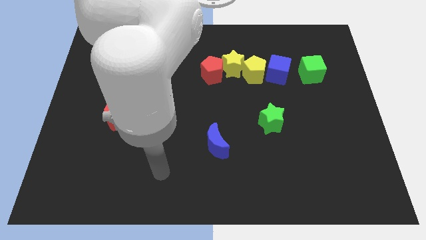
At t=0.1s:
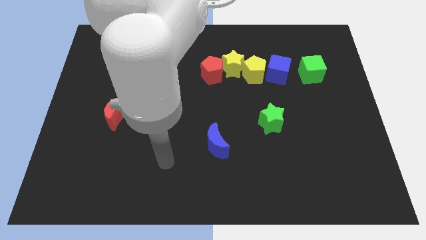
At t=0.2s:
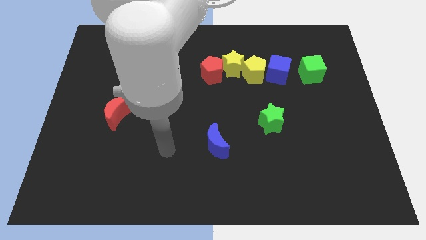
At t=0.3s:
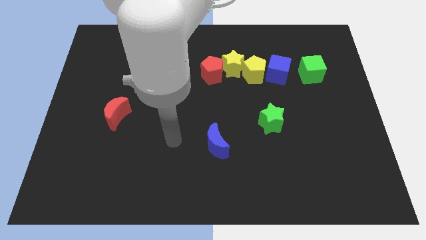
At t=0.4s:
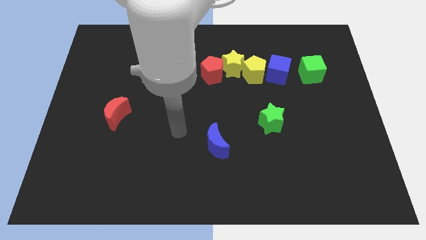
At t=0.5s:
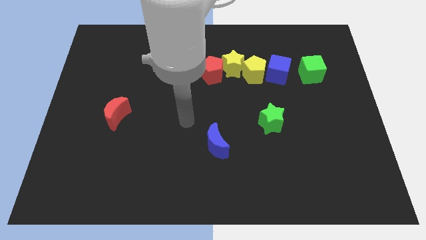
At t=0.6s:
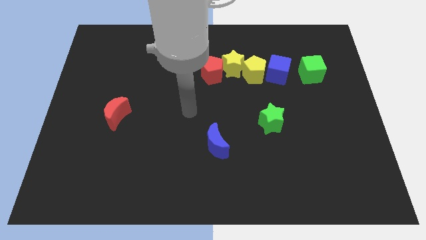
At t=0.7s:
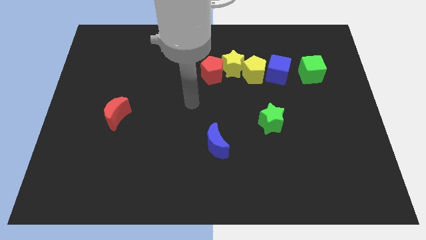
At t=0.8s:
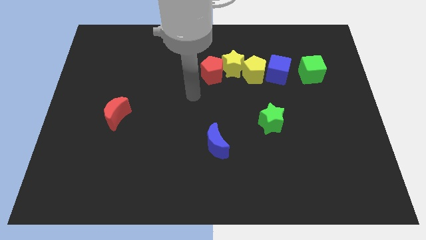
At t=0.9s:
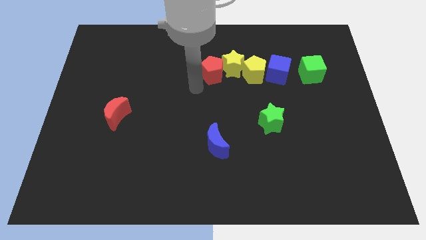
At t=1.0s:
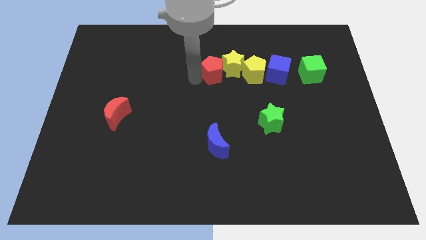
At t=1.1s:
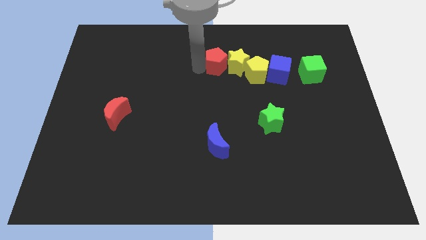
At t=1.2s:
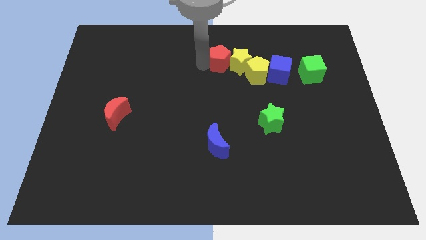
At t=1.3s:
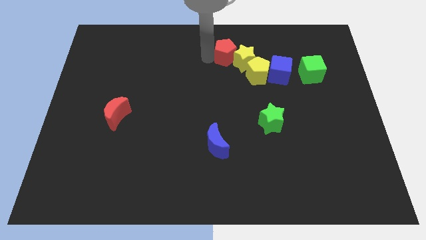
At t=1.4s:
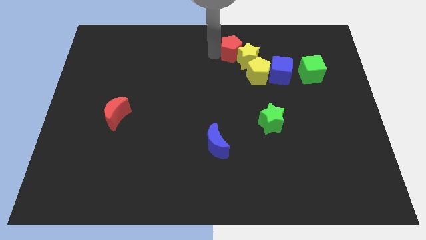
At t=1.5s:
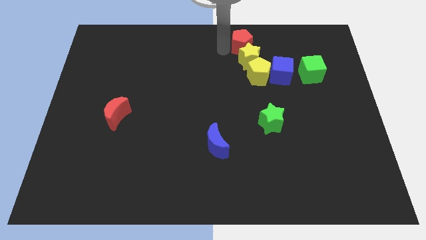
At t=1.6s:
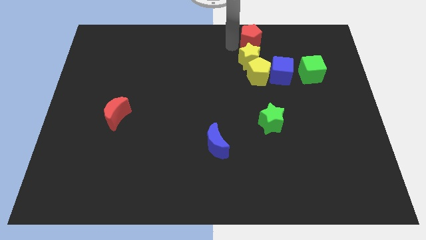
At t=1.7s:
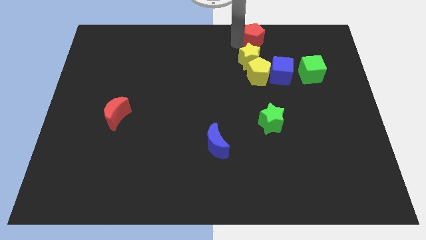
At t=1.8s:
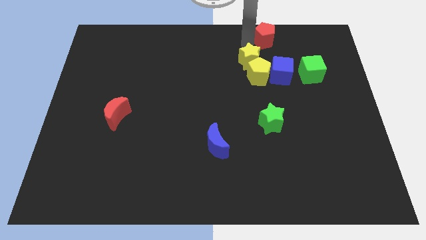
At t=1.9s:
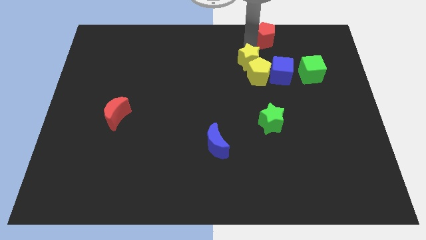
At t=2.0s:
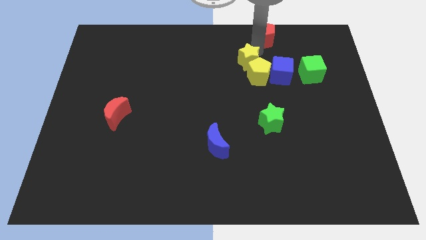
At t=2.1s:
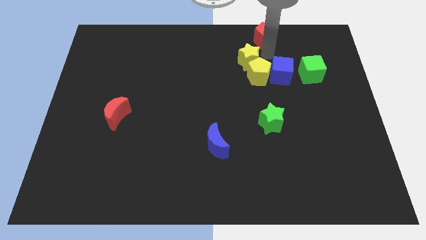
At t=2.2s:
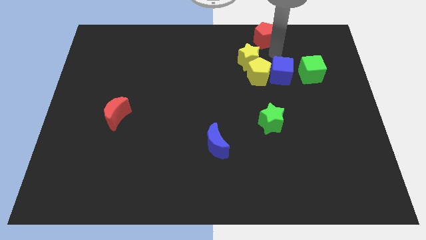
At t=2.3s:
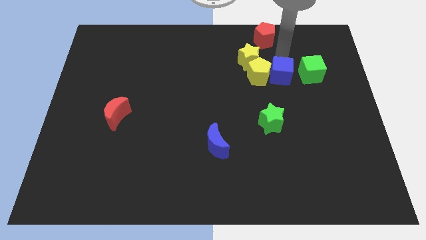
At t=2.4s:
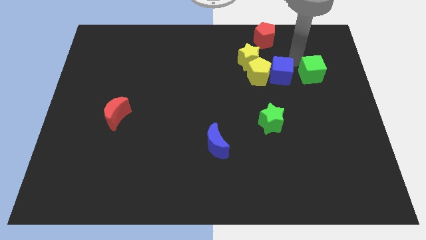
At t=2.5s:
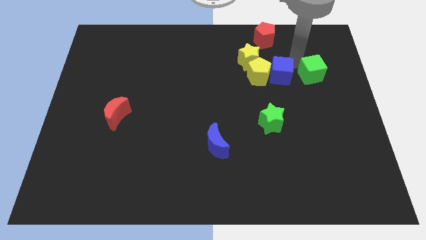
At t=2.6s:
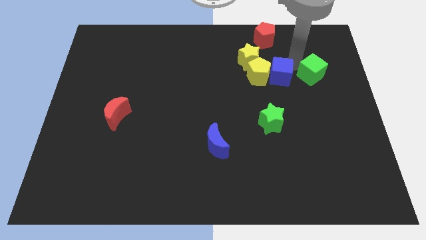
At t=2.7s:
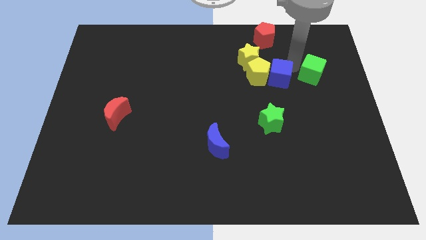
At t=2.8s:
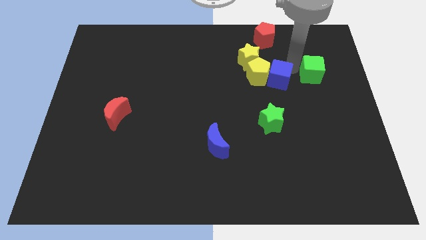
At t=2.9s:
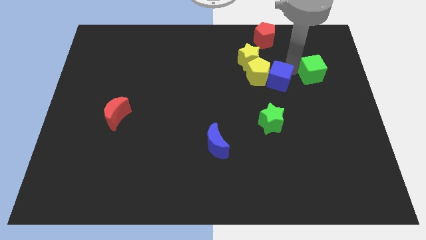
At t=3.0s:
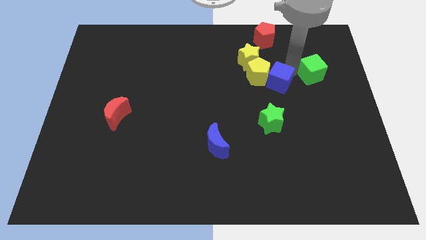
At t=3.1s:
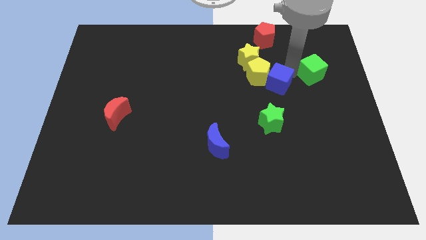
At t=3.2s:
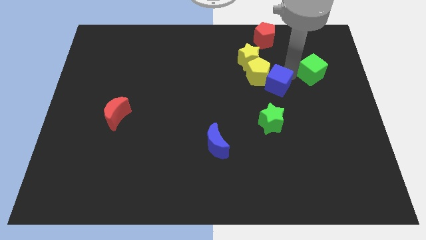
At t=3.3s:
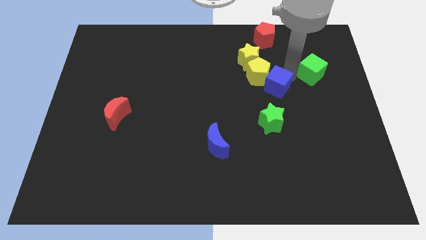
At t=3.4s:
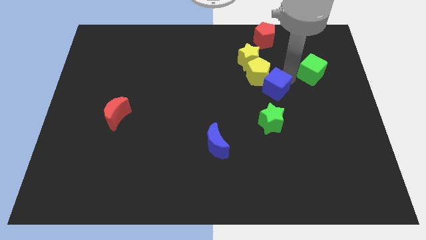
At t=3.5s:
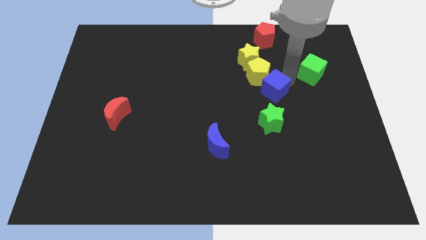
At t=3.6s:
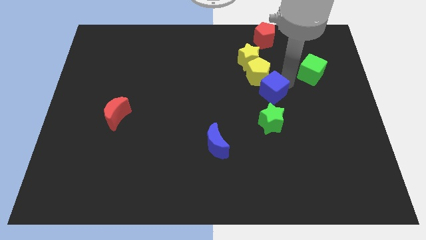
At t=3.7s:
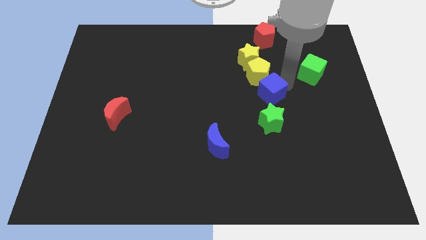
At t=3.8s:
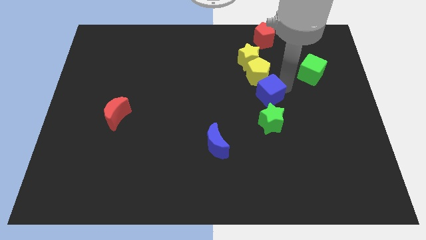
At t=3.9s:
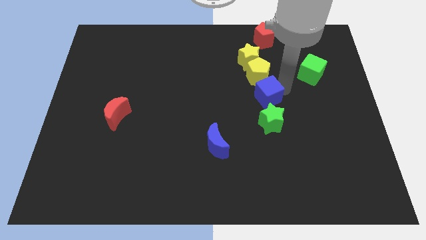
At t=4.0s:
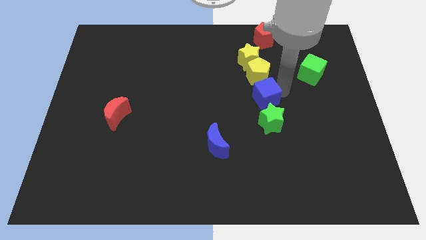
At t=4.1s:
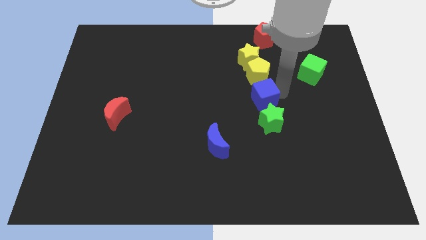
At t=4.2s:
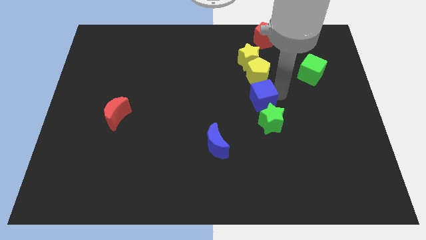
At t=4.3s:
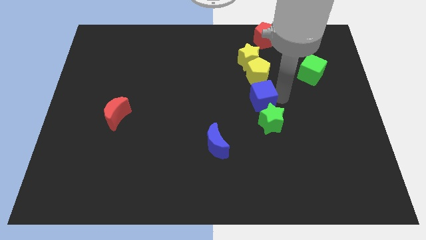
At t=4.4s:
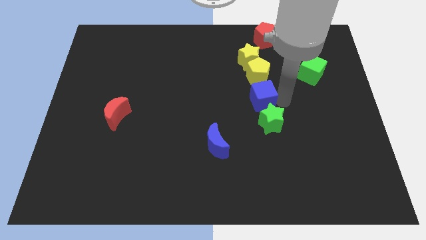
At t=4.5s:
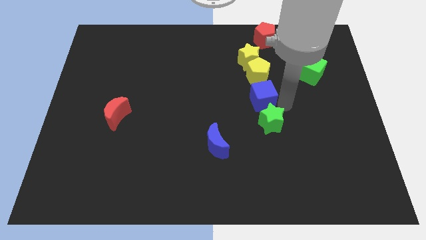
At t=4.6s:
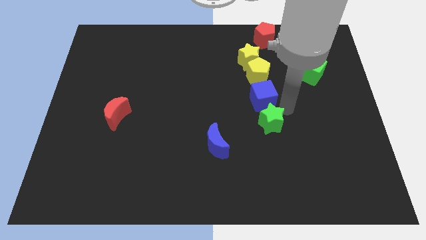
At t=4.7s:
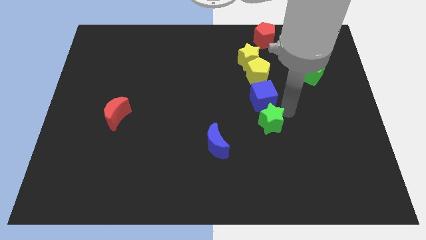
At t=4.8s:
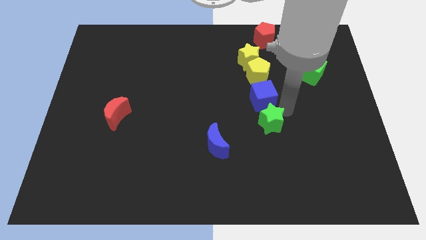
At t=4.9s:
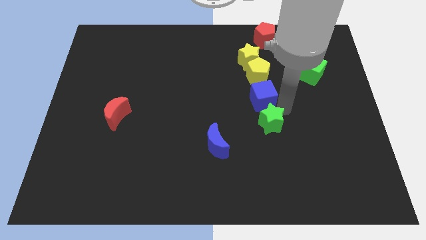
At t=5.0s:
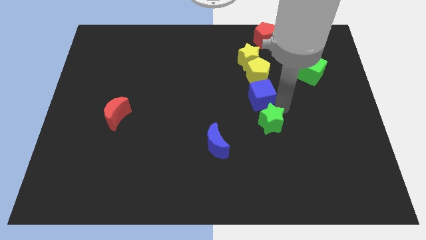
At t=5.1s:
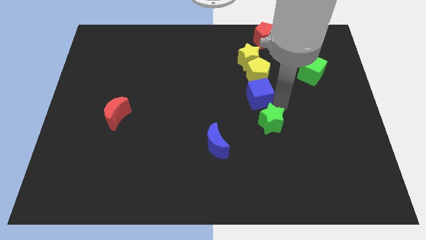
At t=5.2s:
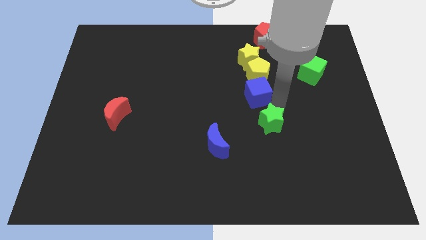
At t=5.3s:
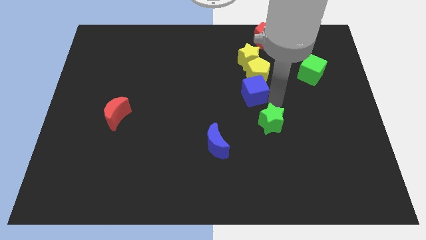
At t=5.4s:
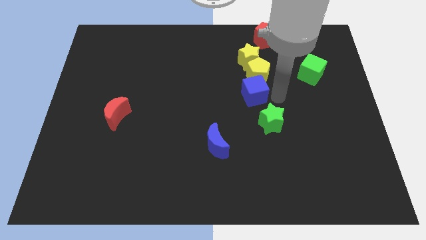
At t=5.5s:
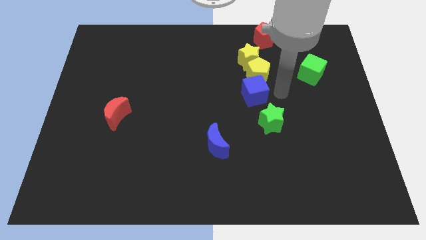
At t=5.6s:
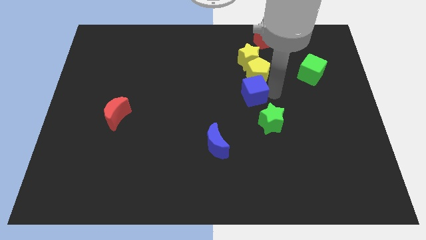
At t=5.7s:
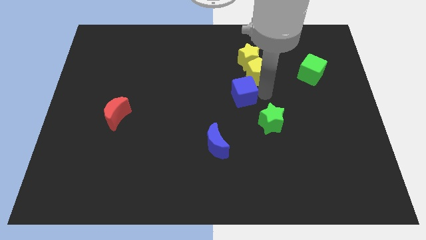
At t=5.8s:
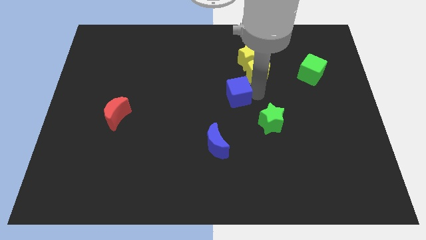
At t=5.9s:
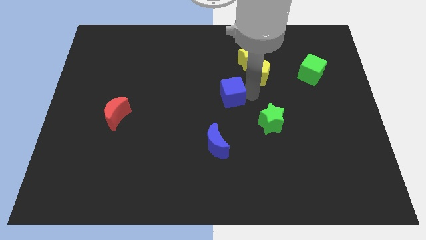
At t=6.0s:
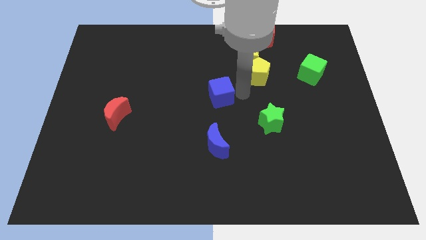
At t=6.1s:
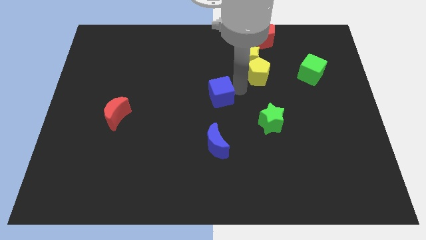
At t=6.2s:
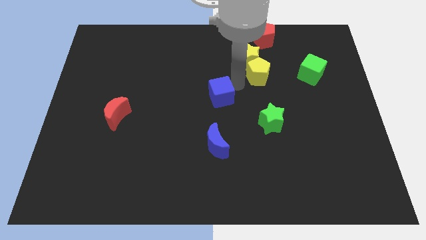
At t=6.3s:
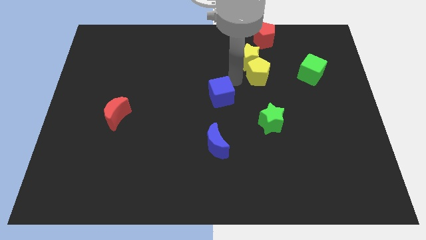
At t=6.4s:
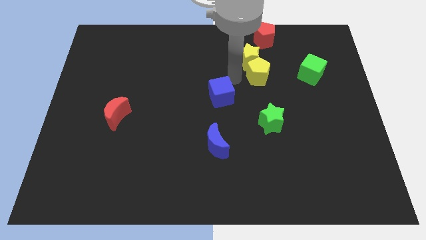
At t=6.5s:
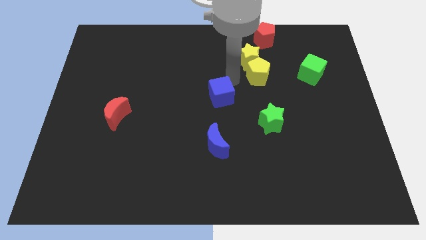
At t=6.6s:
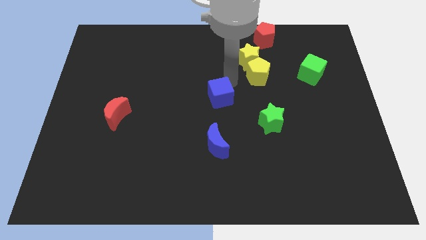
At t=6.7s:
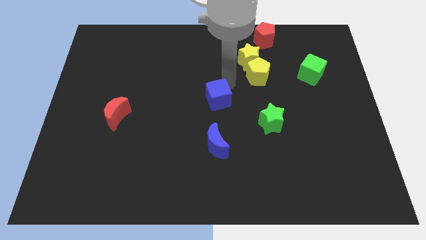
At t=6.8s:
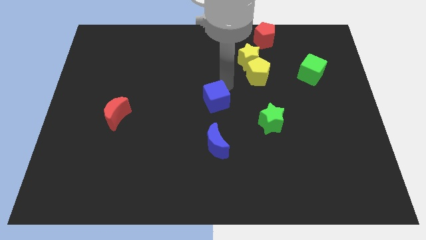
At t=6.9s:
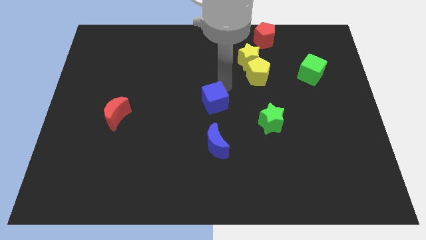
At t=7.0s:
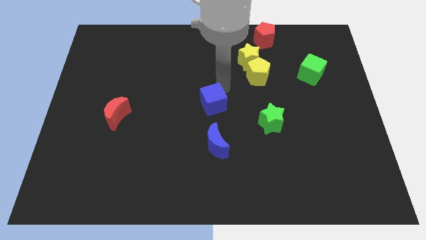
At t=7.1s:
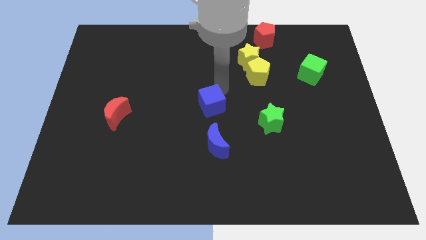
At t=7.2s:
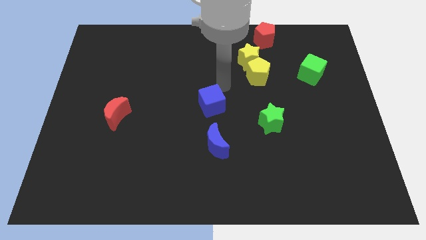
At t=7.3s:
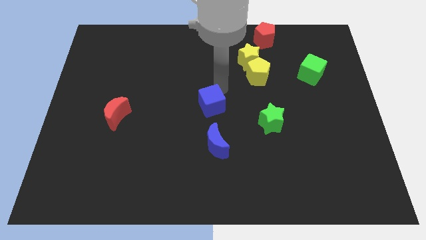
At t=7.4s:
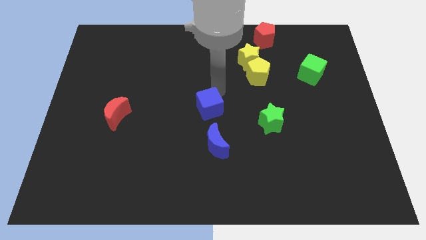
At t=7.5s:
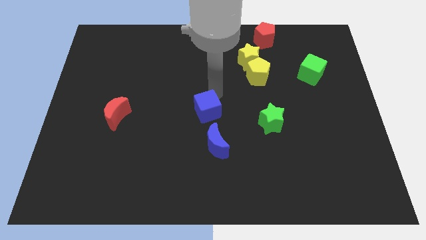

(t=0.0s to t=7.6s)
push the blue cube down and to the left

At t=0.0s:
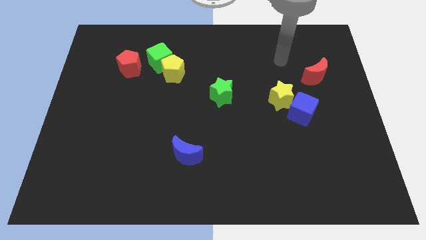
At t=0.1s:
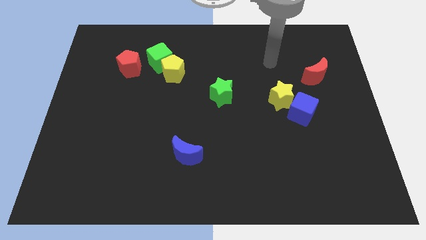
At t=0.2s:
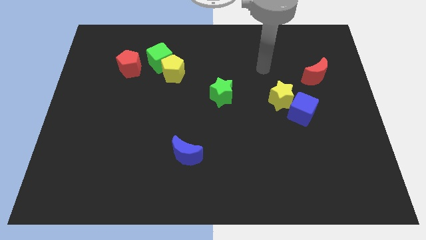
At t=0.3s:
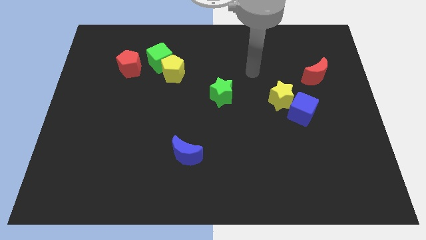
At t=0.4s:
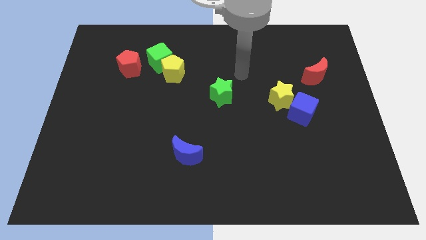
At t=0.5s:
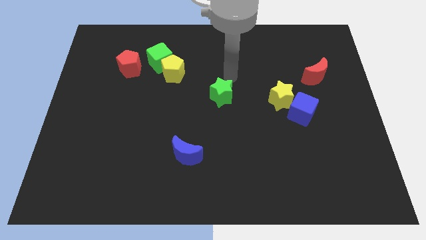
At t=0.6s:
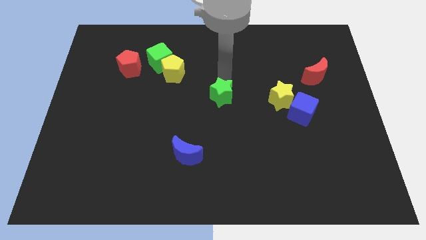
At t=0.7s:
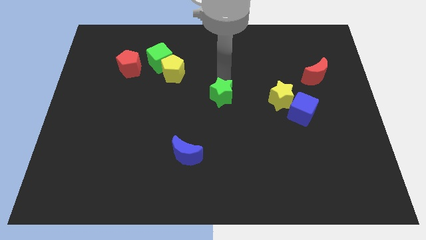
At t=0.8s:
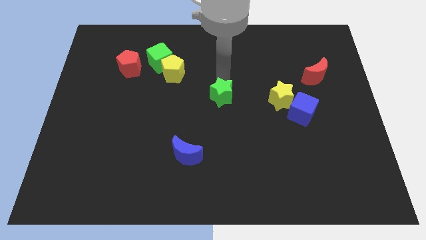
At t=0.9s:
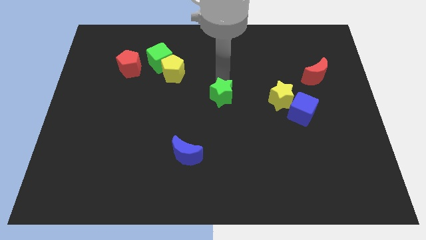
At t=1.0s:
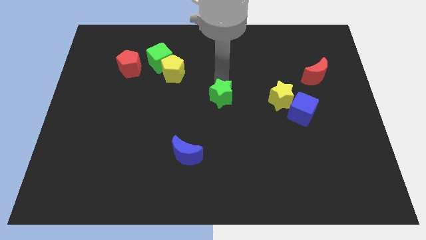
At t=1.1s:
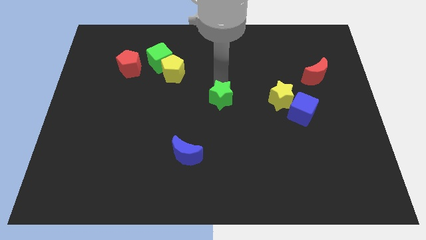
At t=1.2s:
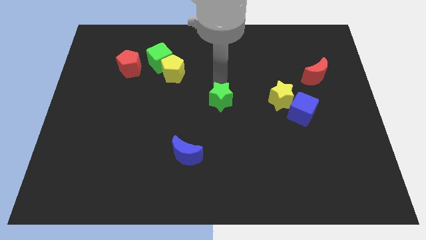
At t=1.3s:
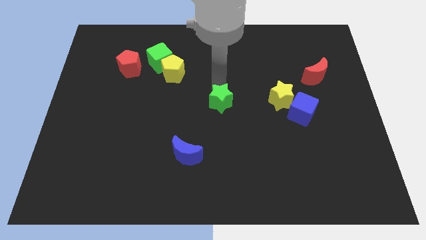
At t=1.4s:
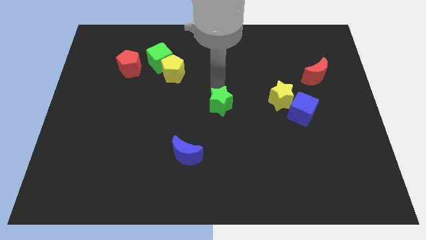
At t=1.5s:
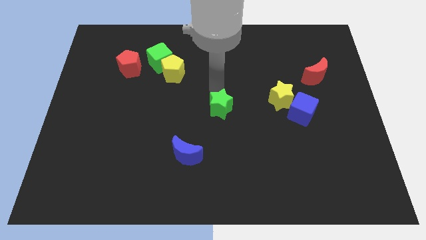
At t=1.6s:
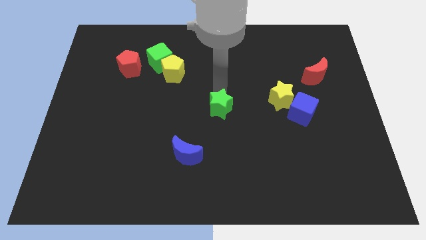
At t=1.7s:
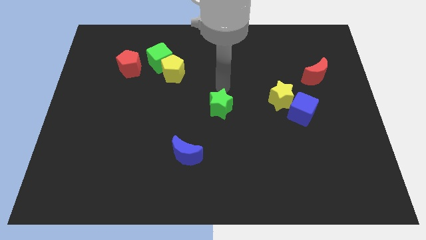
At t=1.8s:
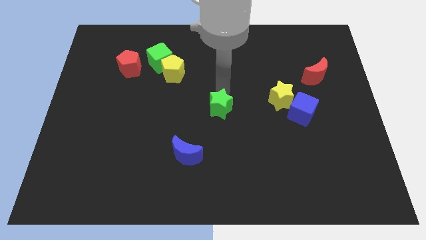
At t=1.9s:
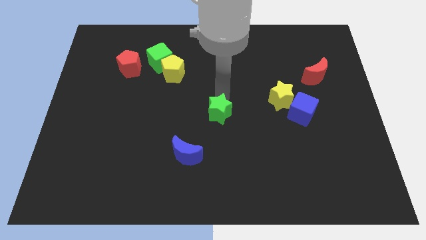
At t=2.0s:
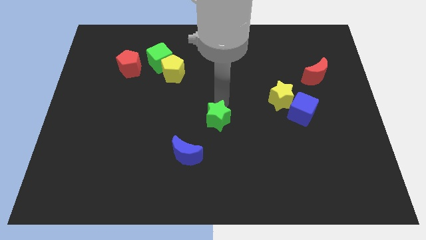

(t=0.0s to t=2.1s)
move the green star down a little
